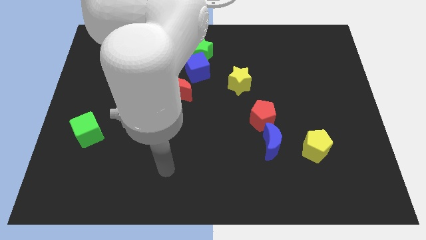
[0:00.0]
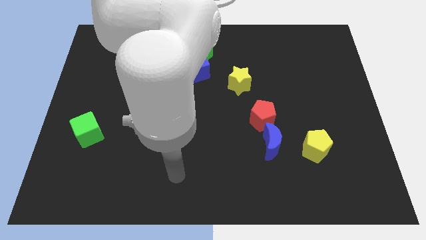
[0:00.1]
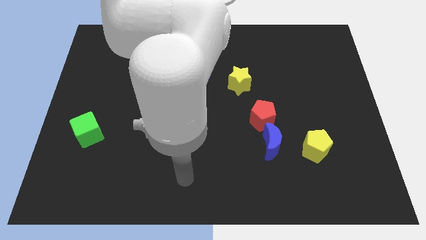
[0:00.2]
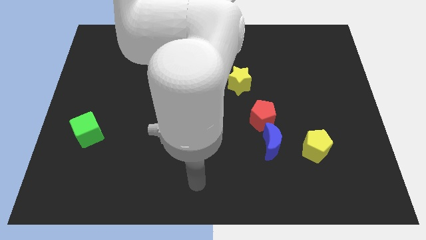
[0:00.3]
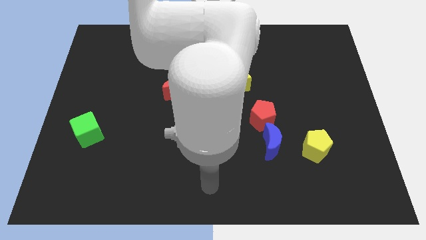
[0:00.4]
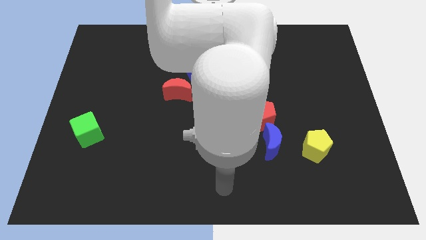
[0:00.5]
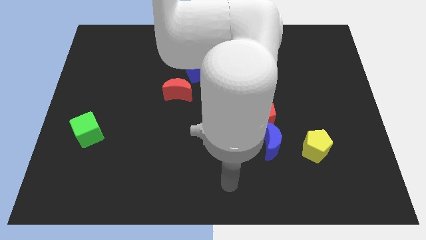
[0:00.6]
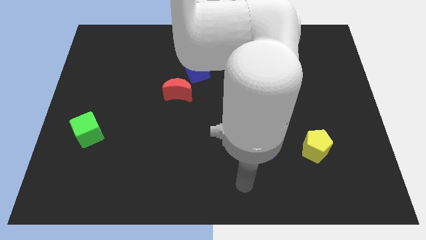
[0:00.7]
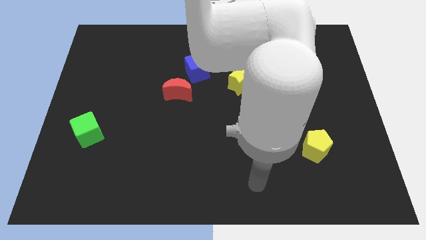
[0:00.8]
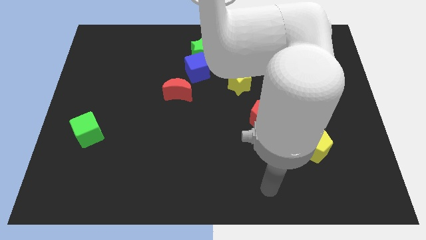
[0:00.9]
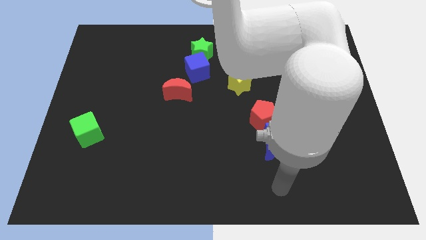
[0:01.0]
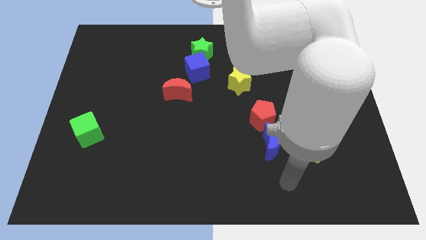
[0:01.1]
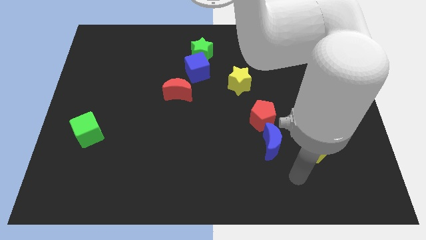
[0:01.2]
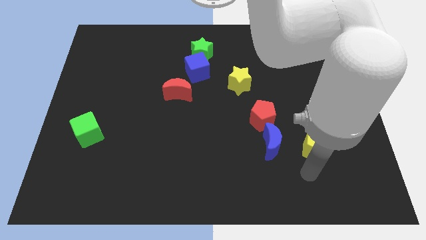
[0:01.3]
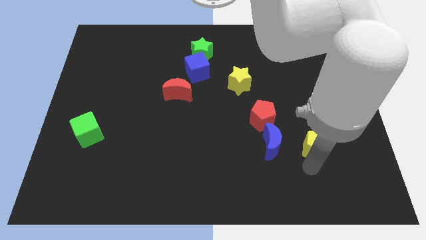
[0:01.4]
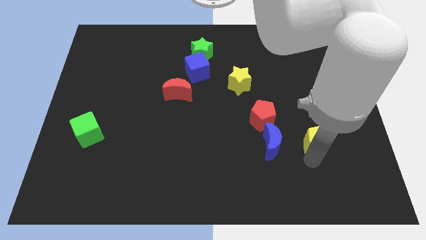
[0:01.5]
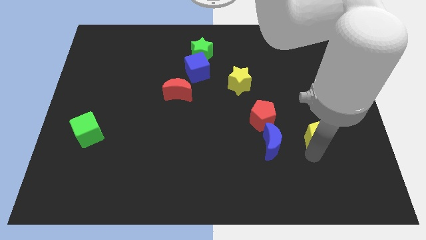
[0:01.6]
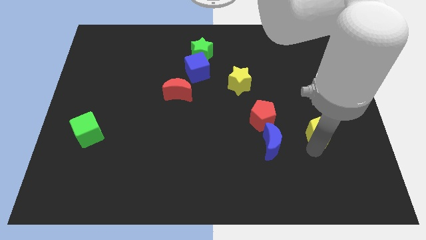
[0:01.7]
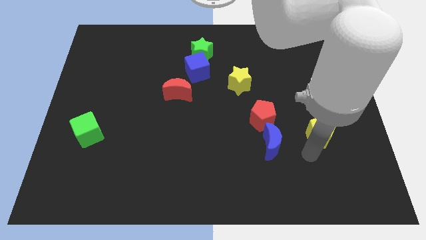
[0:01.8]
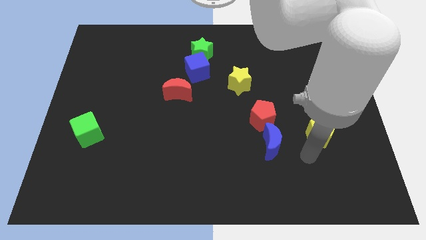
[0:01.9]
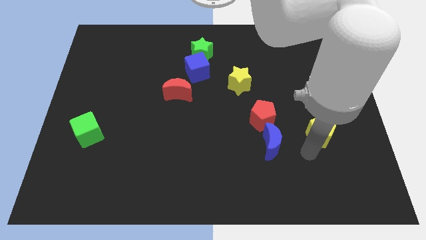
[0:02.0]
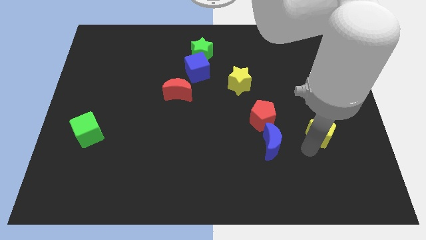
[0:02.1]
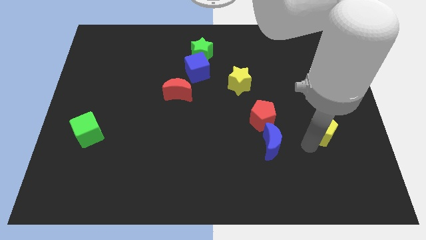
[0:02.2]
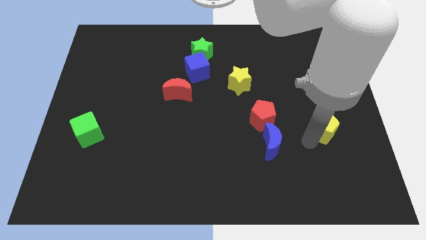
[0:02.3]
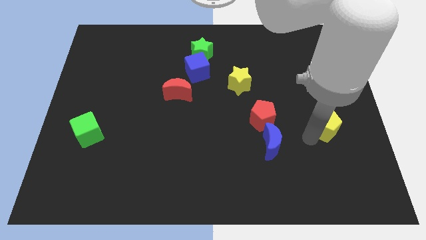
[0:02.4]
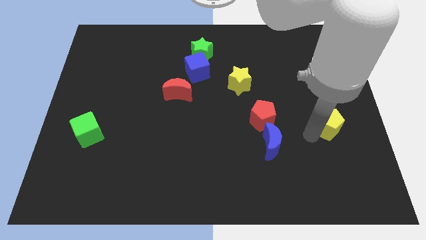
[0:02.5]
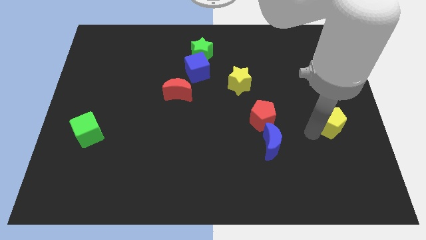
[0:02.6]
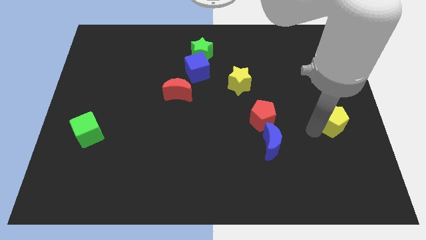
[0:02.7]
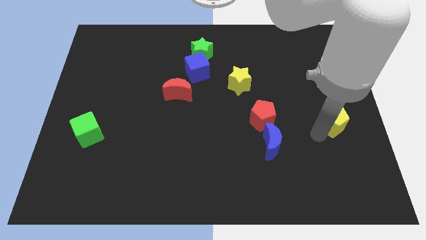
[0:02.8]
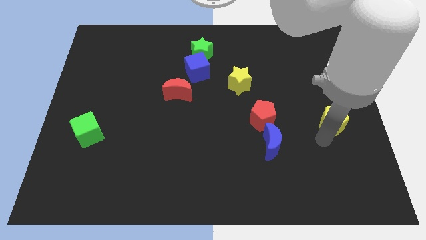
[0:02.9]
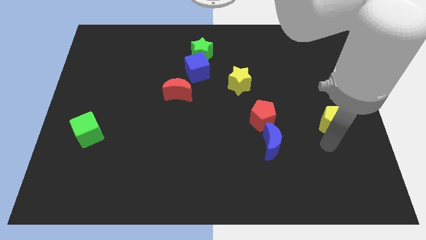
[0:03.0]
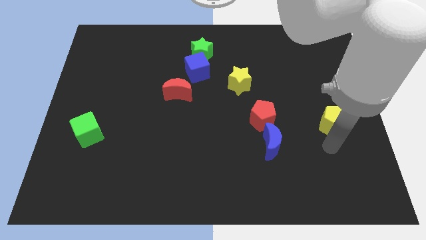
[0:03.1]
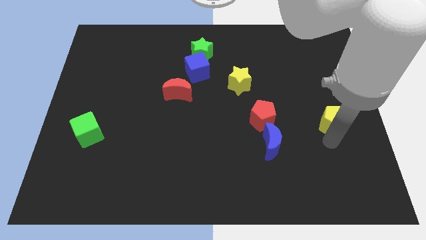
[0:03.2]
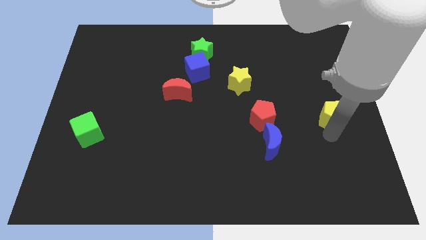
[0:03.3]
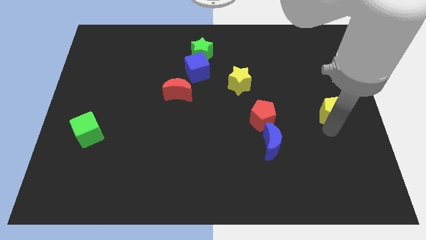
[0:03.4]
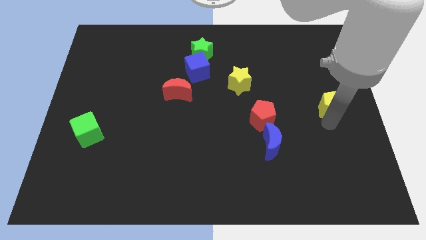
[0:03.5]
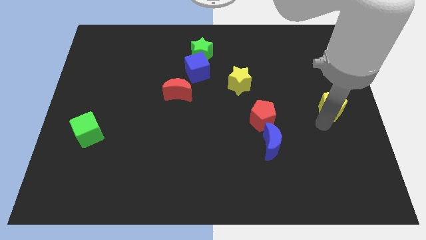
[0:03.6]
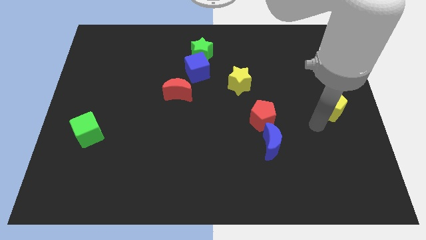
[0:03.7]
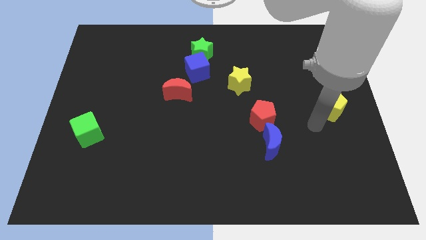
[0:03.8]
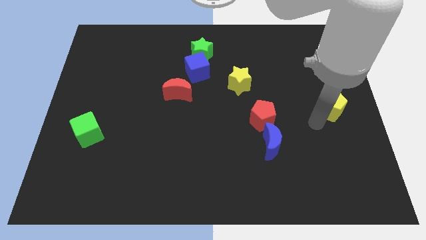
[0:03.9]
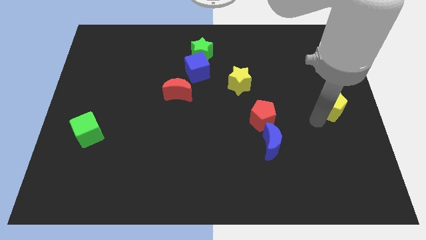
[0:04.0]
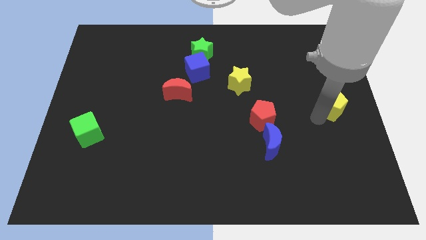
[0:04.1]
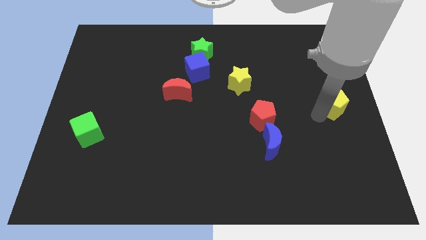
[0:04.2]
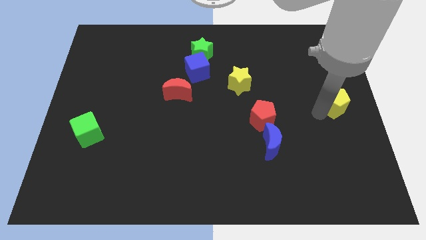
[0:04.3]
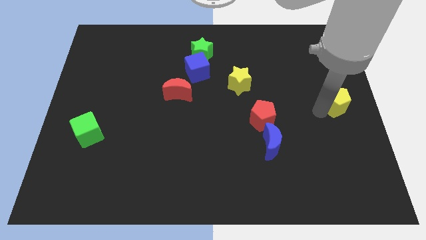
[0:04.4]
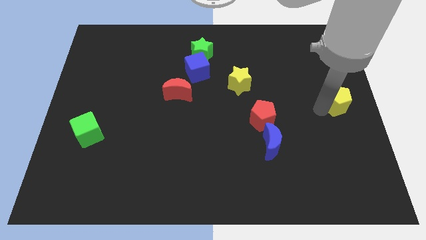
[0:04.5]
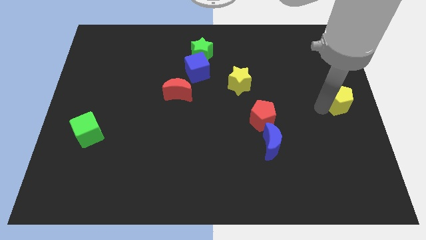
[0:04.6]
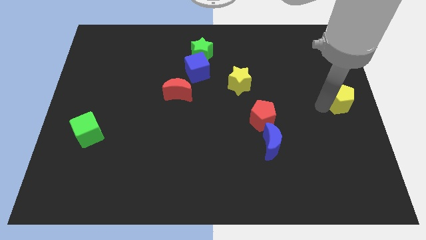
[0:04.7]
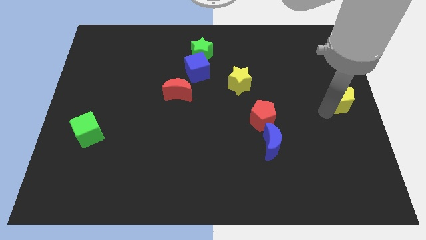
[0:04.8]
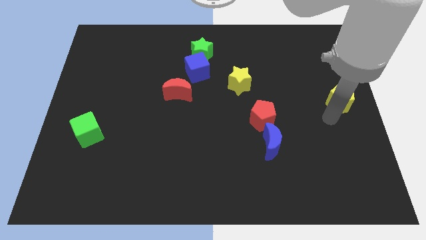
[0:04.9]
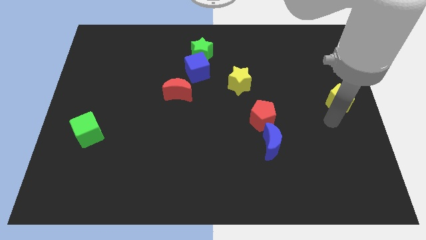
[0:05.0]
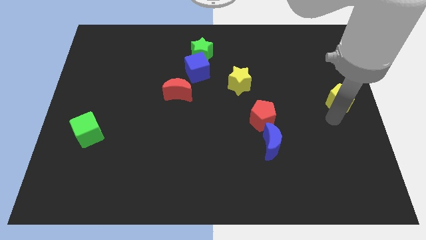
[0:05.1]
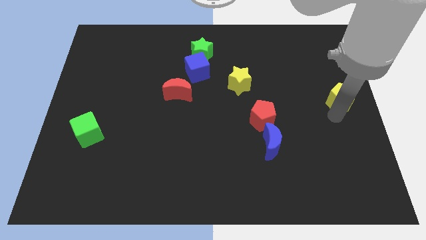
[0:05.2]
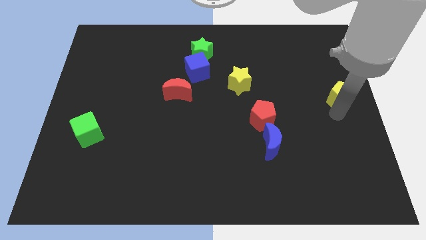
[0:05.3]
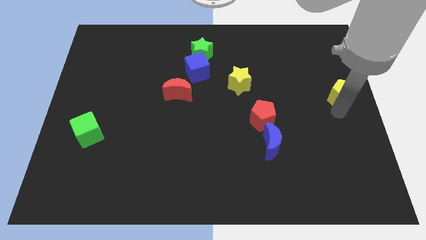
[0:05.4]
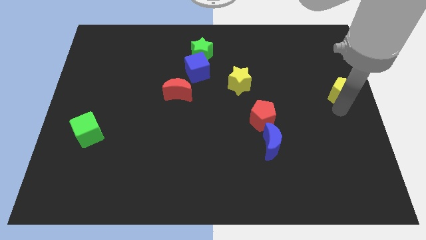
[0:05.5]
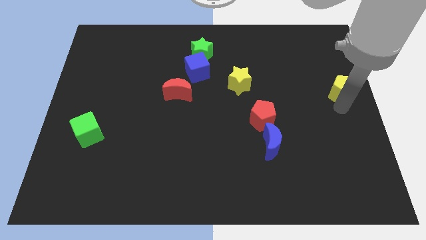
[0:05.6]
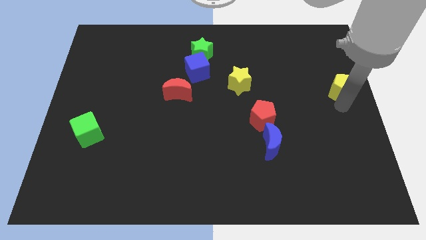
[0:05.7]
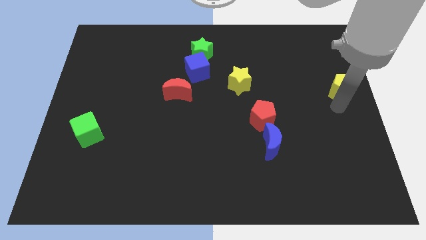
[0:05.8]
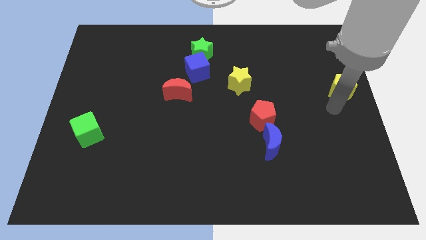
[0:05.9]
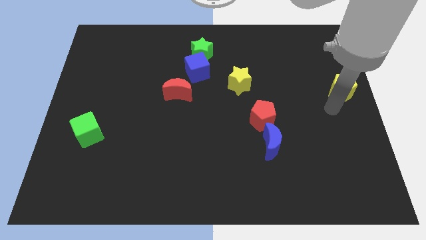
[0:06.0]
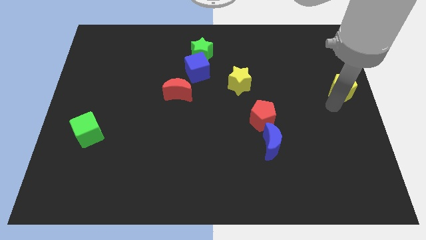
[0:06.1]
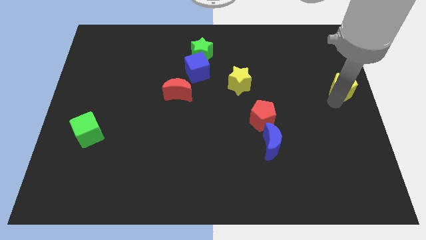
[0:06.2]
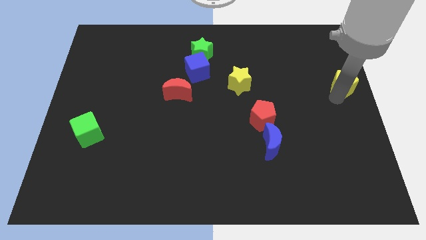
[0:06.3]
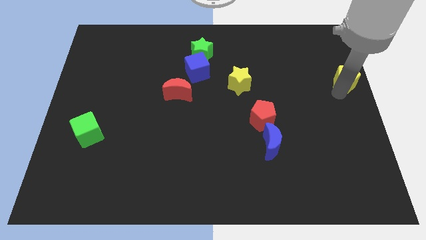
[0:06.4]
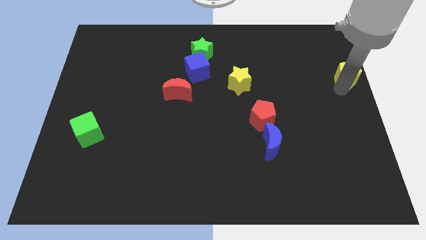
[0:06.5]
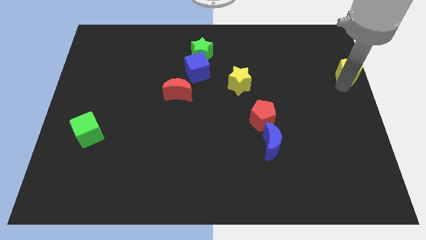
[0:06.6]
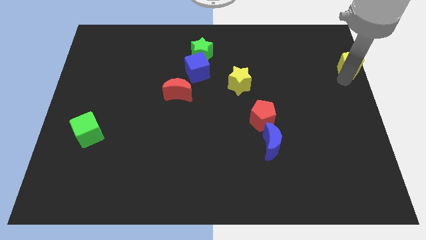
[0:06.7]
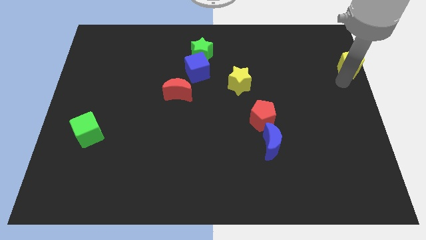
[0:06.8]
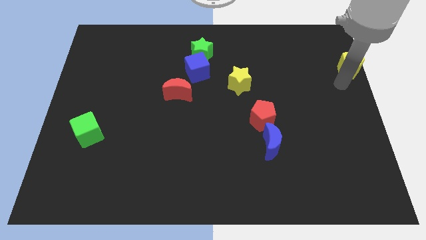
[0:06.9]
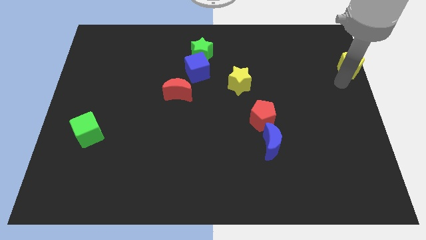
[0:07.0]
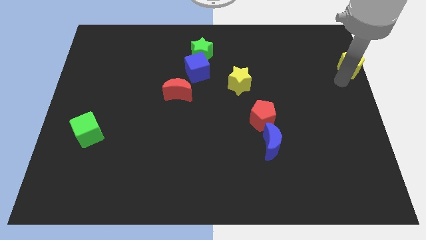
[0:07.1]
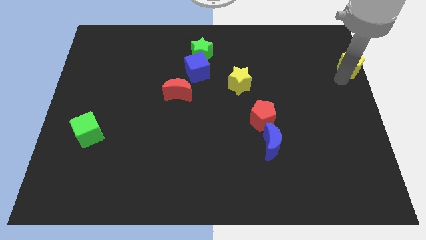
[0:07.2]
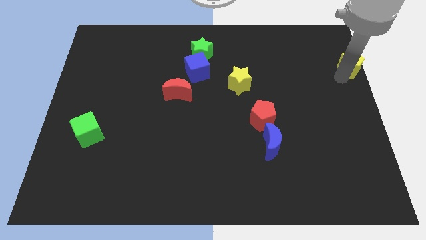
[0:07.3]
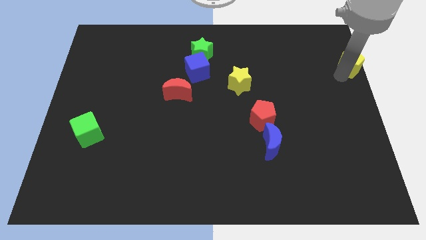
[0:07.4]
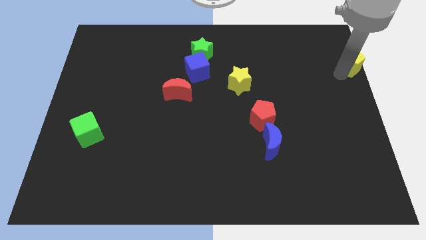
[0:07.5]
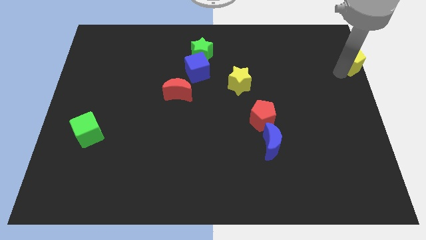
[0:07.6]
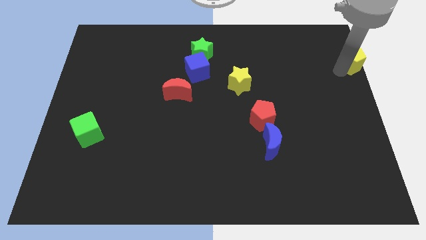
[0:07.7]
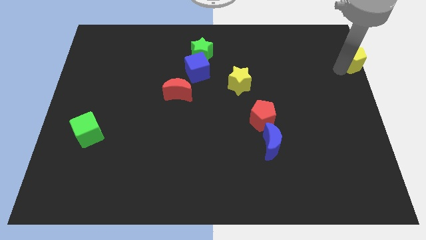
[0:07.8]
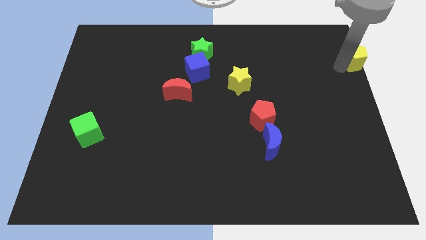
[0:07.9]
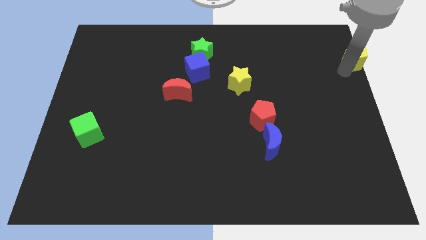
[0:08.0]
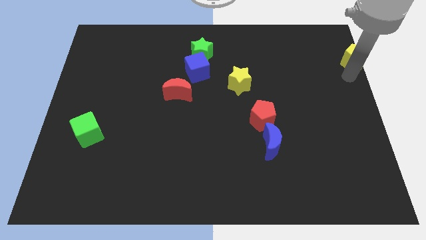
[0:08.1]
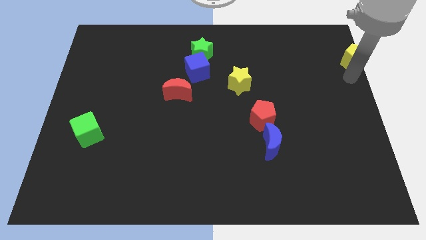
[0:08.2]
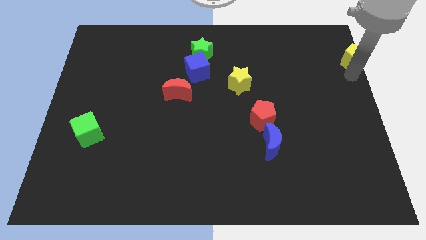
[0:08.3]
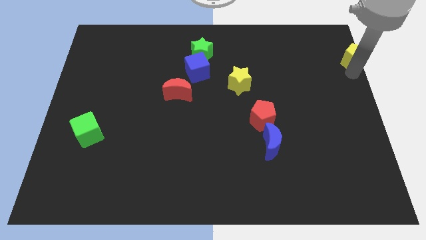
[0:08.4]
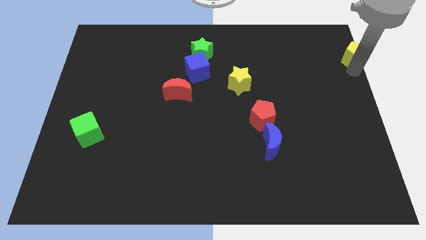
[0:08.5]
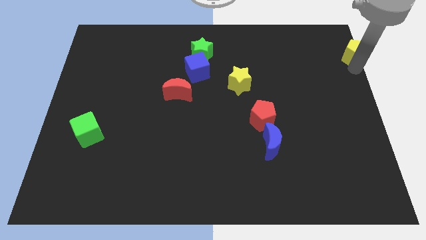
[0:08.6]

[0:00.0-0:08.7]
put the yellow pentagon to the upper right corner
